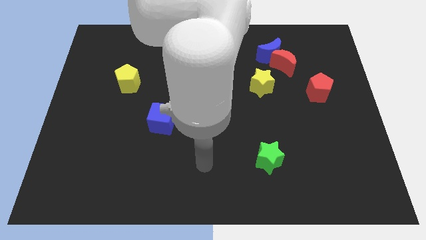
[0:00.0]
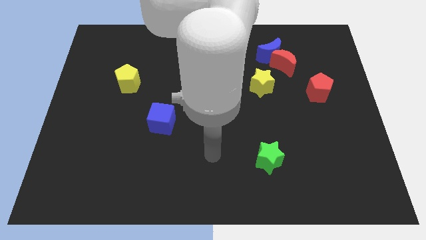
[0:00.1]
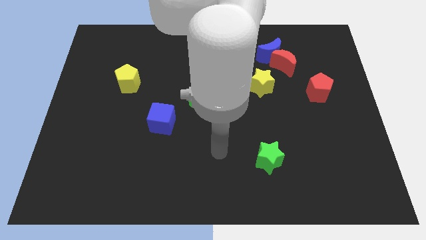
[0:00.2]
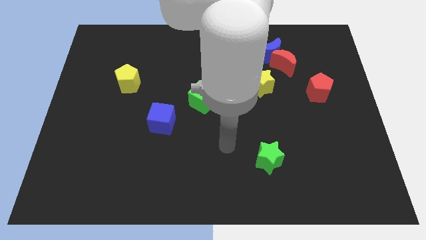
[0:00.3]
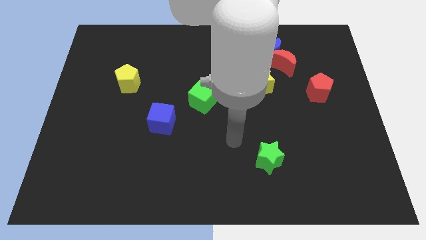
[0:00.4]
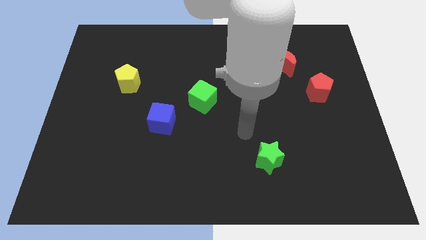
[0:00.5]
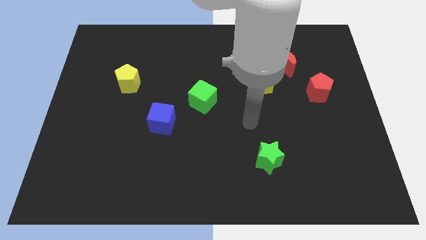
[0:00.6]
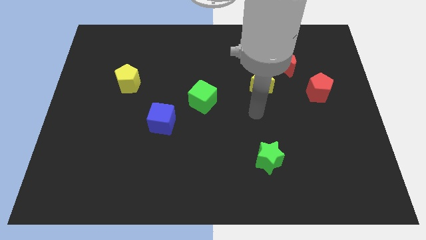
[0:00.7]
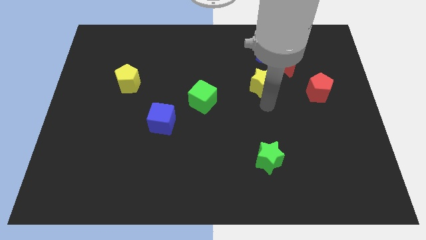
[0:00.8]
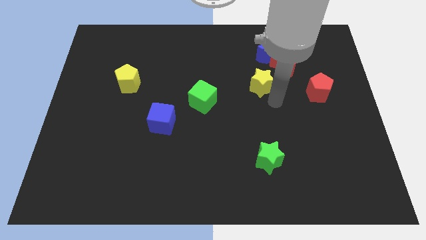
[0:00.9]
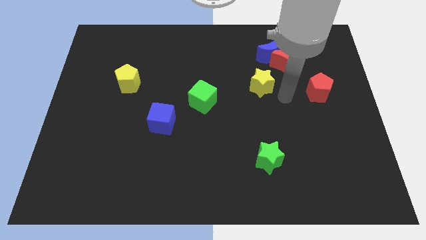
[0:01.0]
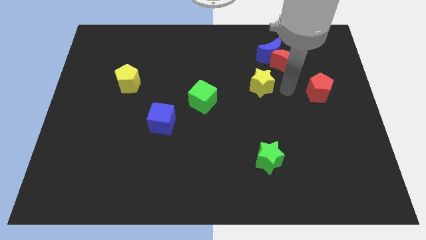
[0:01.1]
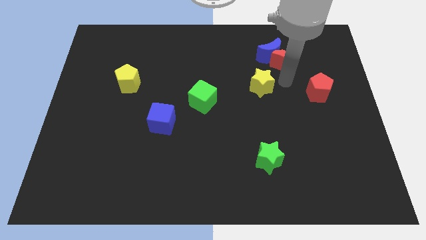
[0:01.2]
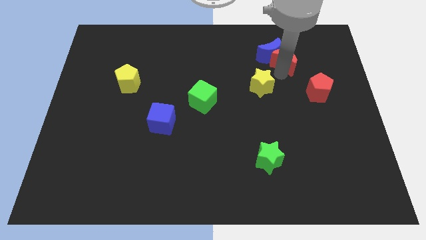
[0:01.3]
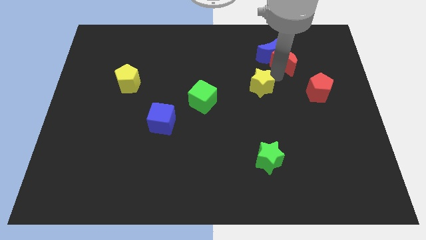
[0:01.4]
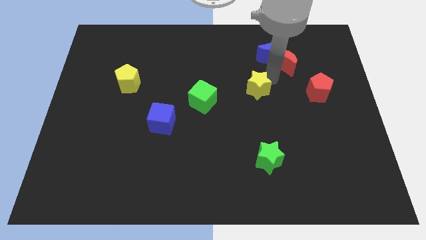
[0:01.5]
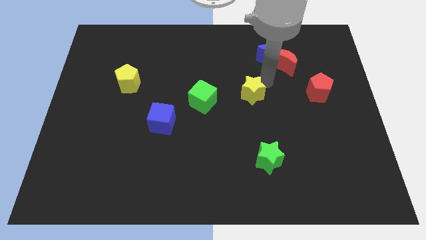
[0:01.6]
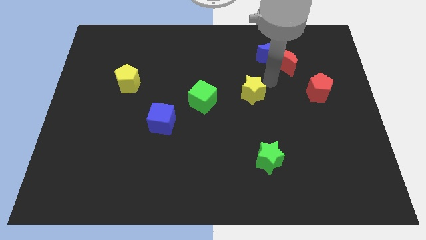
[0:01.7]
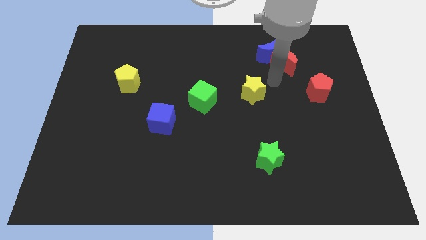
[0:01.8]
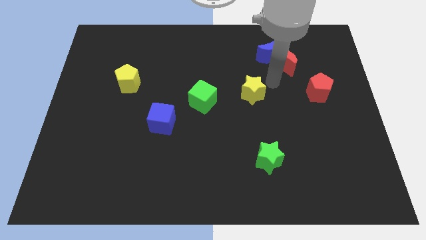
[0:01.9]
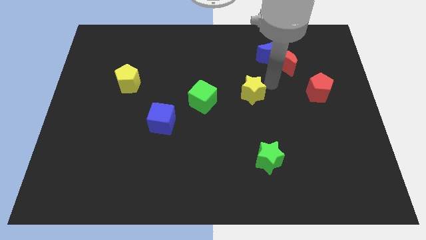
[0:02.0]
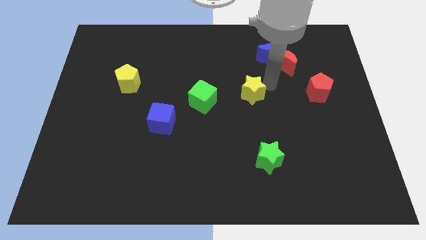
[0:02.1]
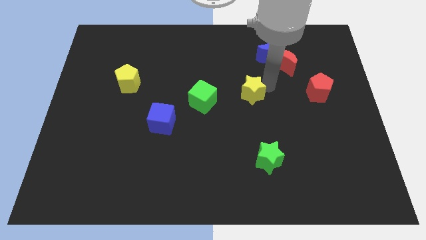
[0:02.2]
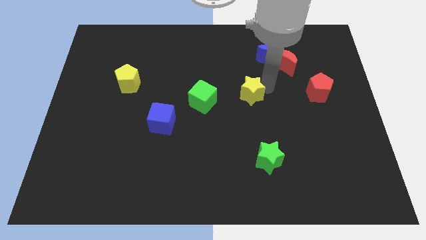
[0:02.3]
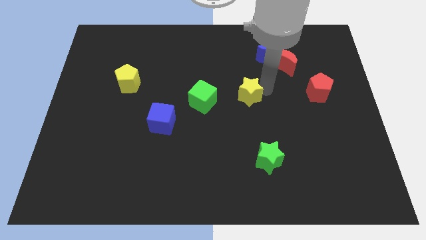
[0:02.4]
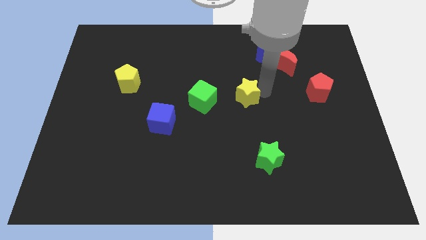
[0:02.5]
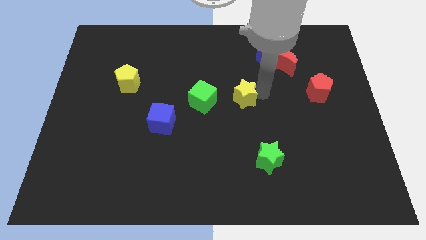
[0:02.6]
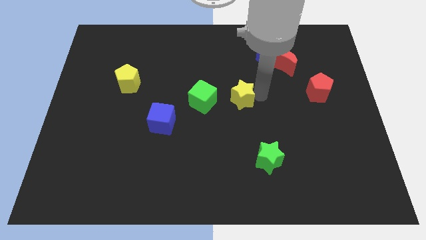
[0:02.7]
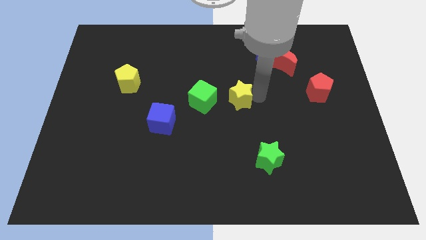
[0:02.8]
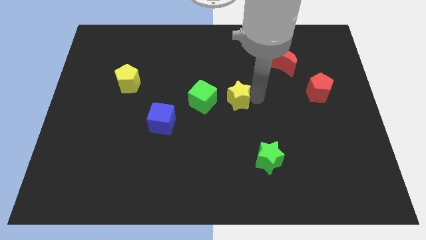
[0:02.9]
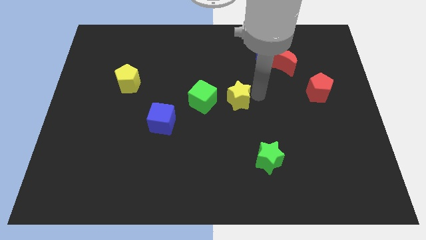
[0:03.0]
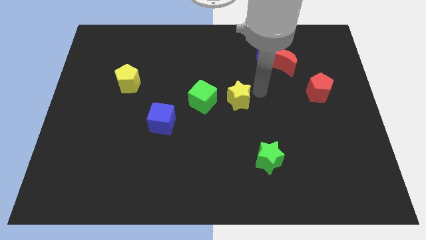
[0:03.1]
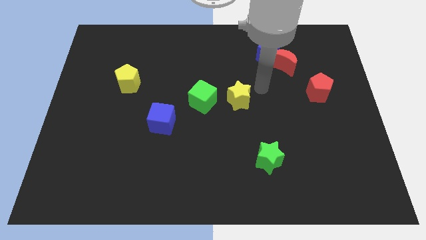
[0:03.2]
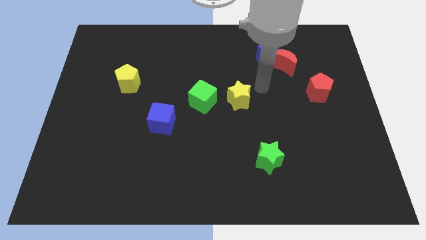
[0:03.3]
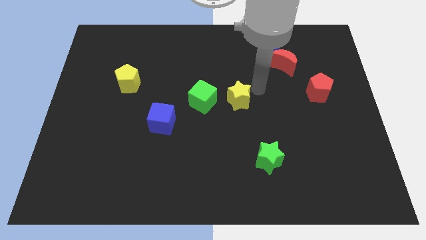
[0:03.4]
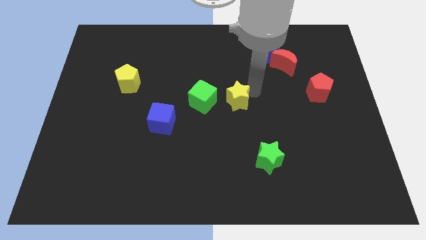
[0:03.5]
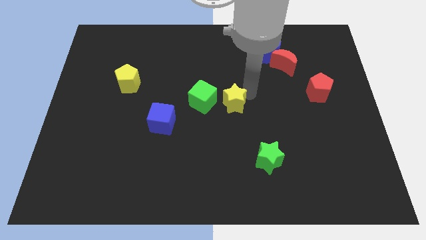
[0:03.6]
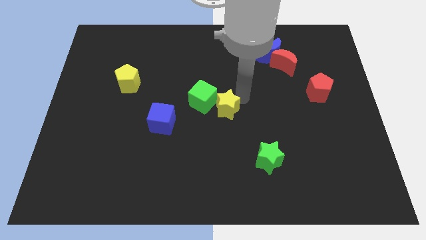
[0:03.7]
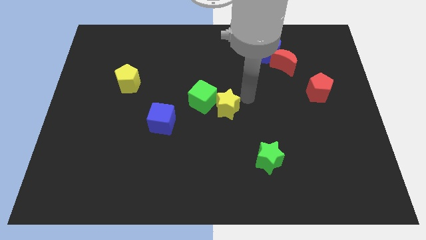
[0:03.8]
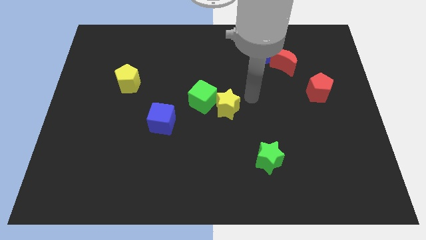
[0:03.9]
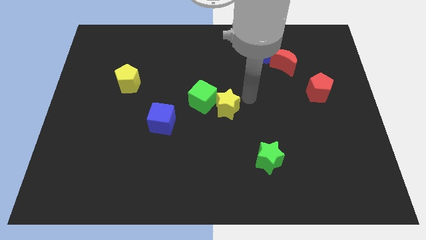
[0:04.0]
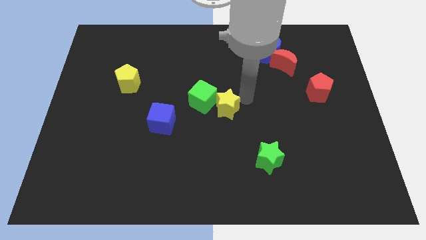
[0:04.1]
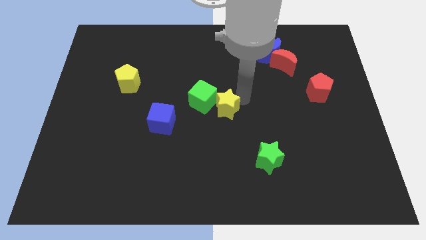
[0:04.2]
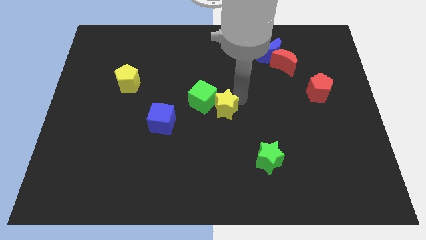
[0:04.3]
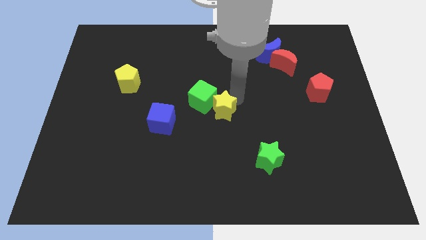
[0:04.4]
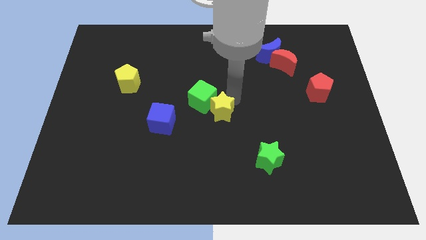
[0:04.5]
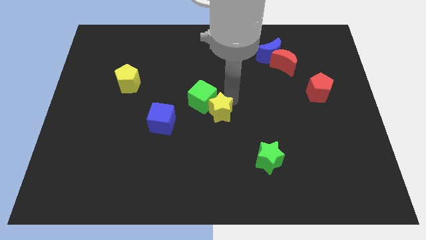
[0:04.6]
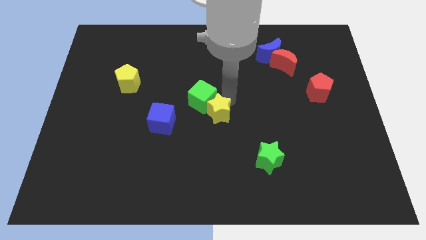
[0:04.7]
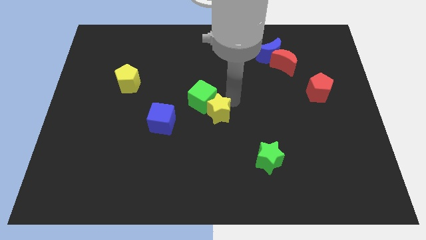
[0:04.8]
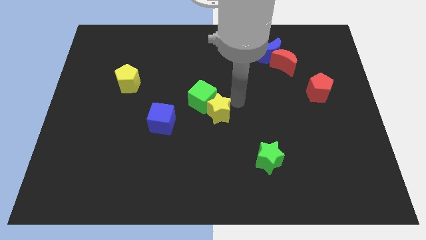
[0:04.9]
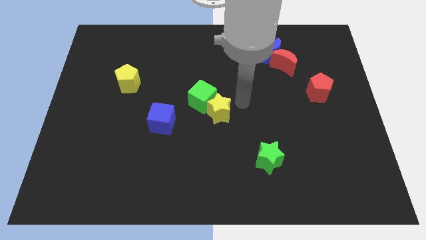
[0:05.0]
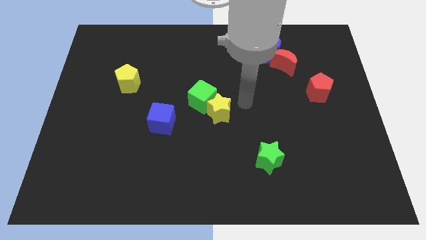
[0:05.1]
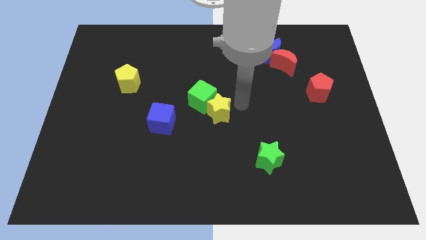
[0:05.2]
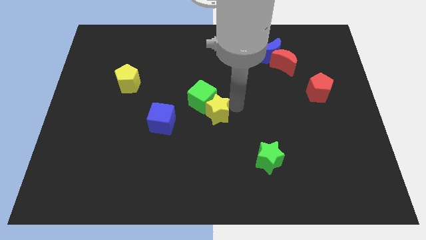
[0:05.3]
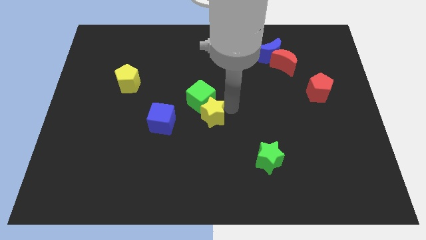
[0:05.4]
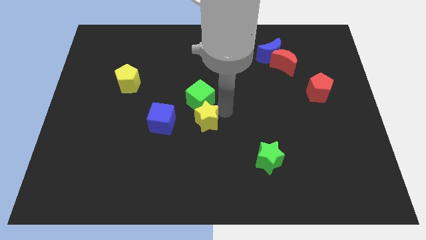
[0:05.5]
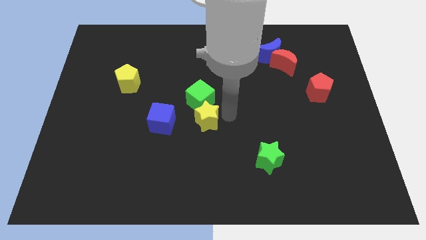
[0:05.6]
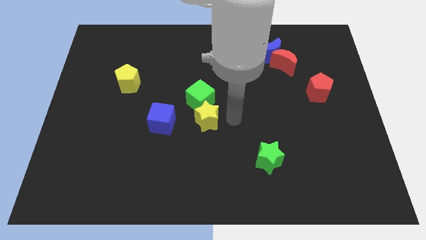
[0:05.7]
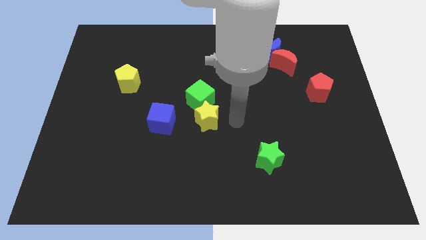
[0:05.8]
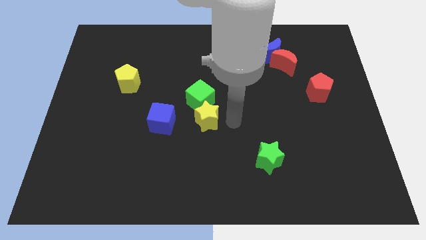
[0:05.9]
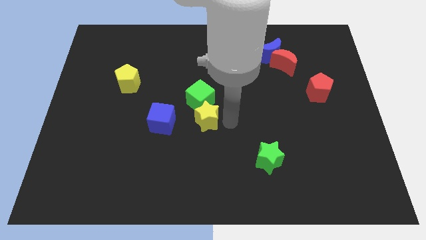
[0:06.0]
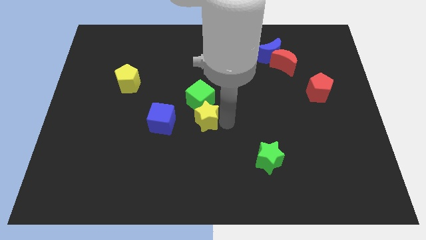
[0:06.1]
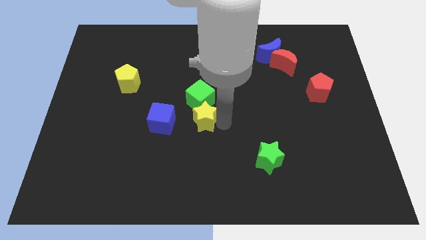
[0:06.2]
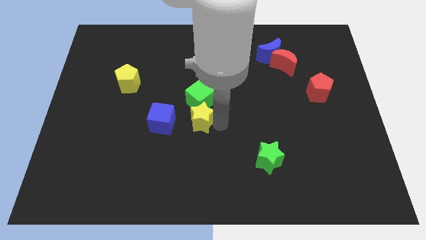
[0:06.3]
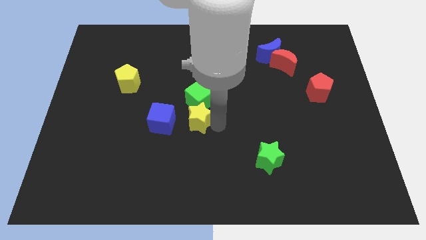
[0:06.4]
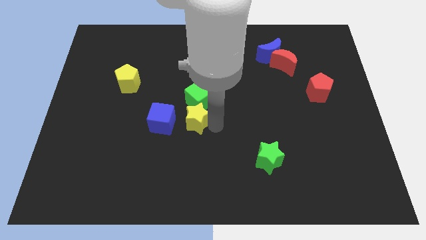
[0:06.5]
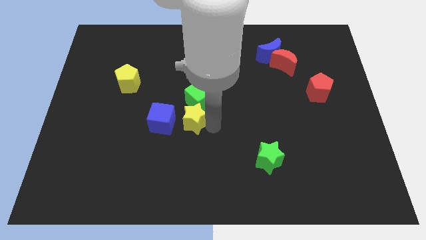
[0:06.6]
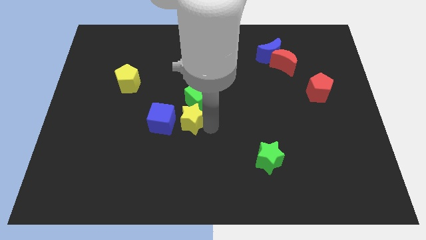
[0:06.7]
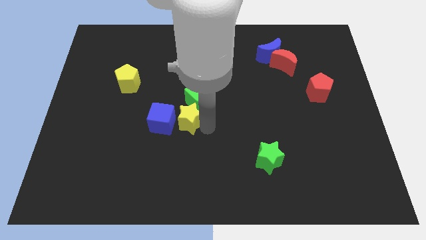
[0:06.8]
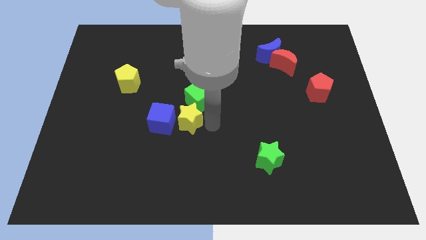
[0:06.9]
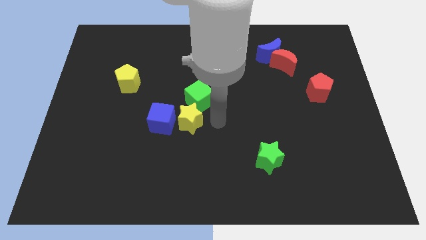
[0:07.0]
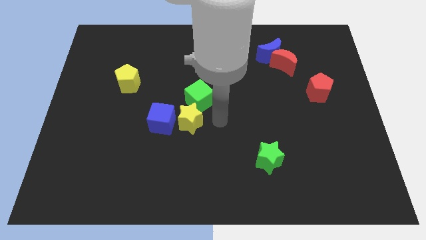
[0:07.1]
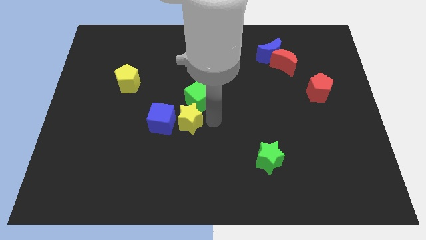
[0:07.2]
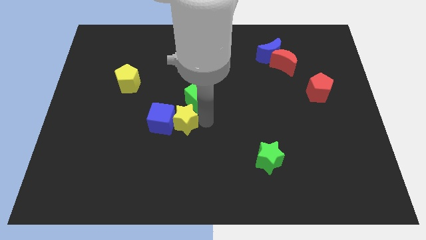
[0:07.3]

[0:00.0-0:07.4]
push the yellow star next to the blue cube
